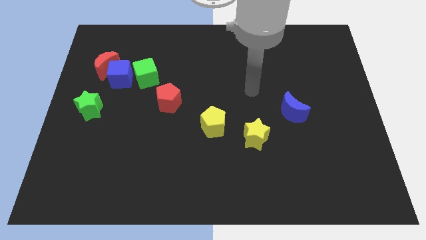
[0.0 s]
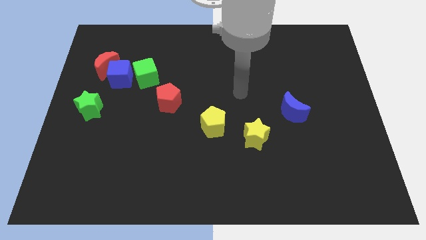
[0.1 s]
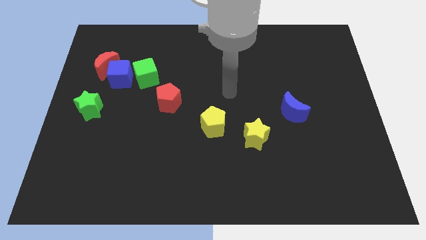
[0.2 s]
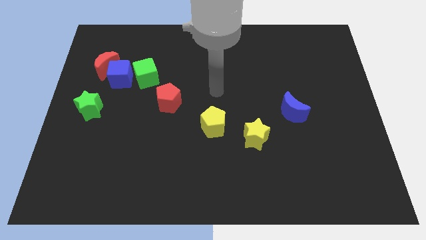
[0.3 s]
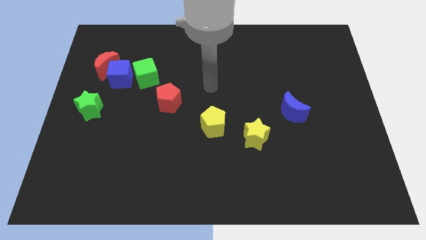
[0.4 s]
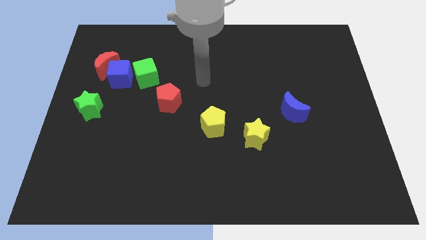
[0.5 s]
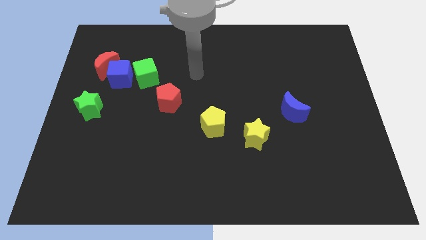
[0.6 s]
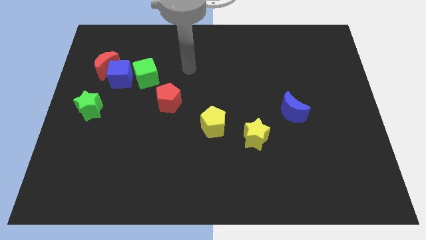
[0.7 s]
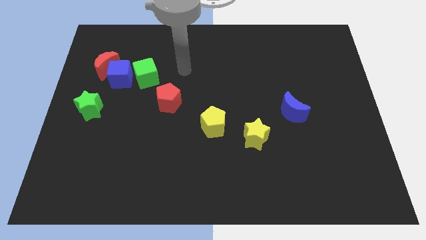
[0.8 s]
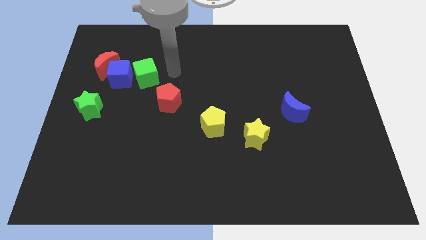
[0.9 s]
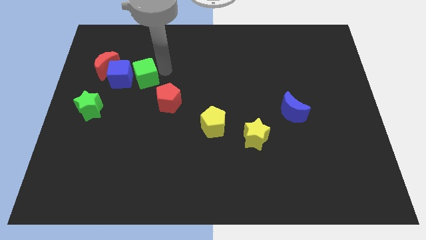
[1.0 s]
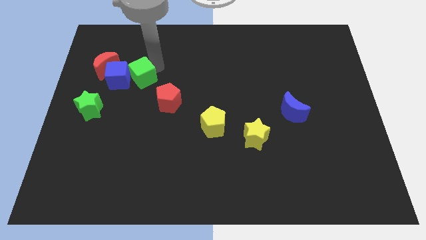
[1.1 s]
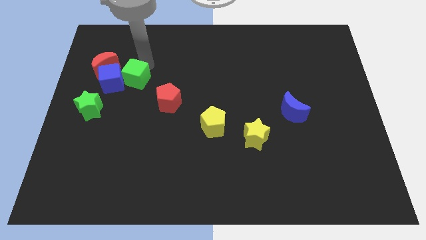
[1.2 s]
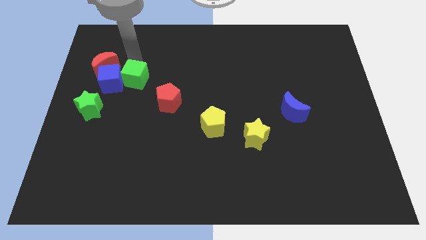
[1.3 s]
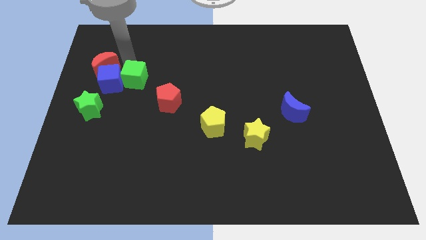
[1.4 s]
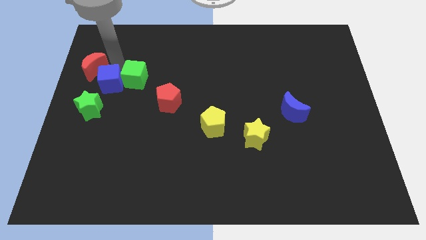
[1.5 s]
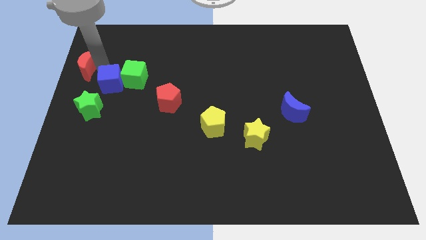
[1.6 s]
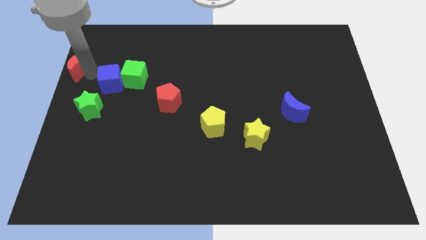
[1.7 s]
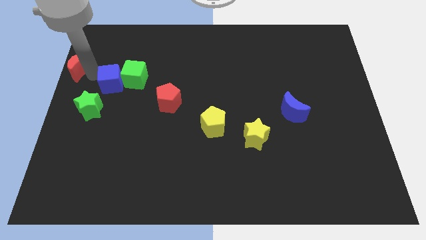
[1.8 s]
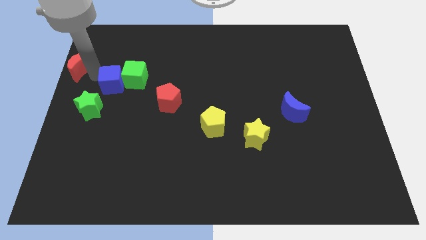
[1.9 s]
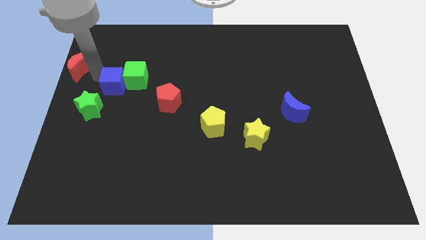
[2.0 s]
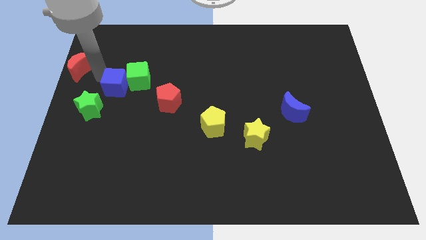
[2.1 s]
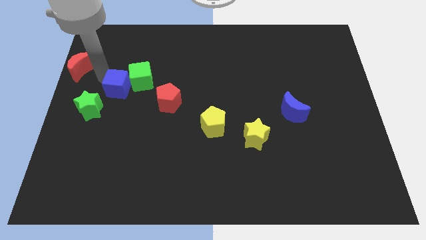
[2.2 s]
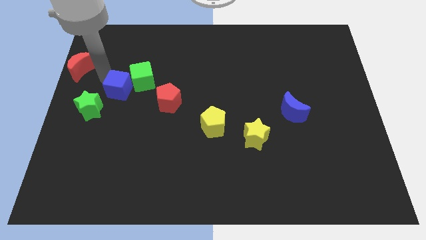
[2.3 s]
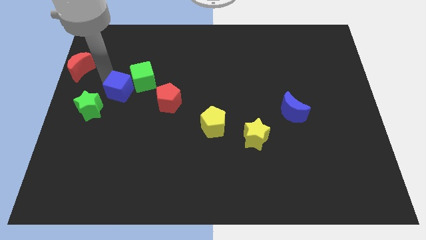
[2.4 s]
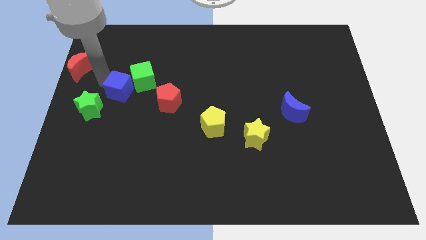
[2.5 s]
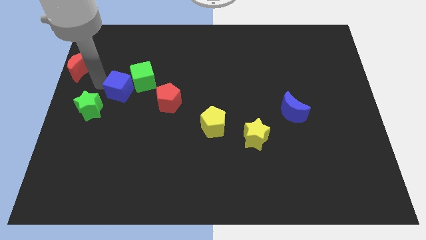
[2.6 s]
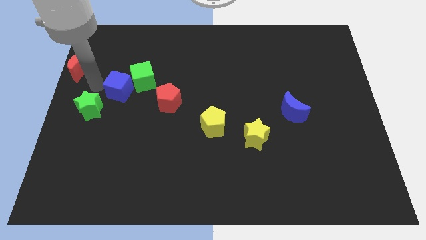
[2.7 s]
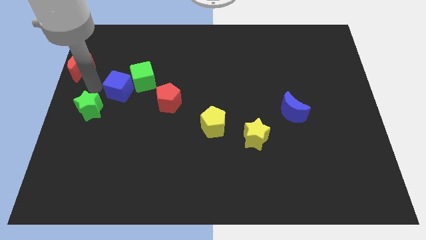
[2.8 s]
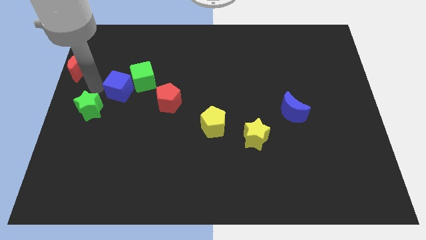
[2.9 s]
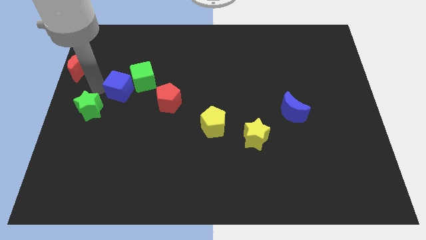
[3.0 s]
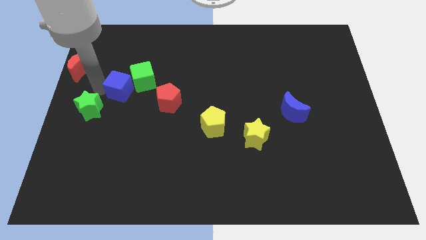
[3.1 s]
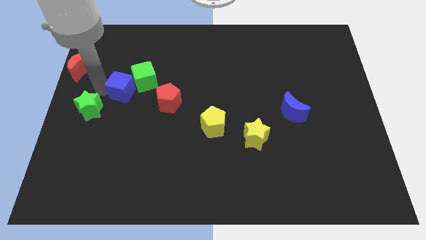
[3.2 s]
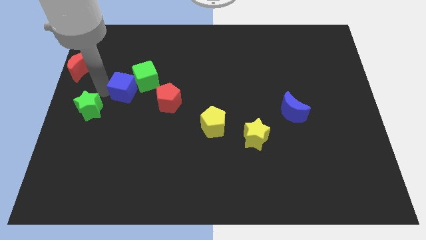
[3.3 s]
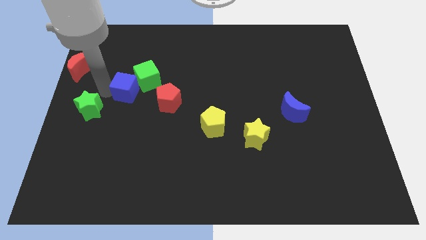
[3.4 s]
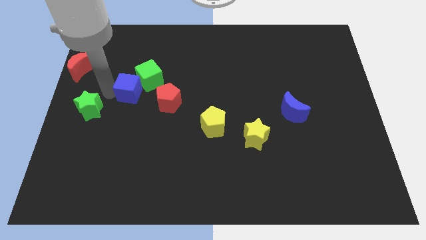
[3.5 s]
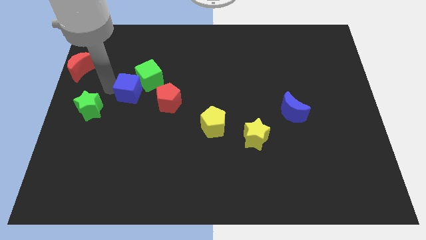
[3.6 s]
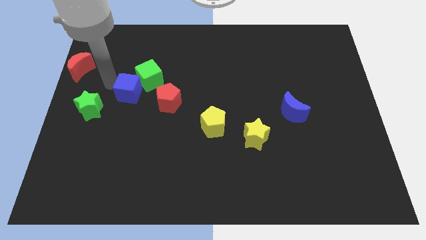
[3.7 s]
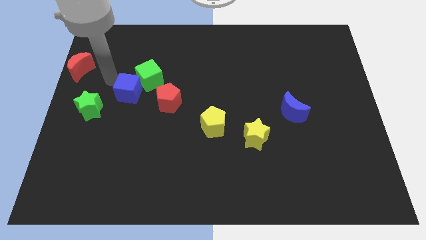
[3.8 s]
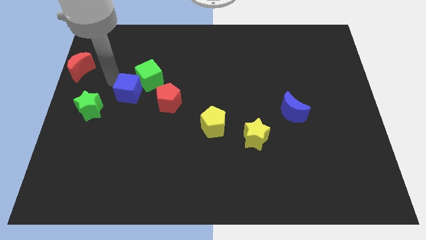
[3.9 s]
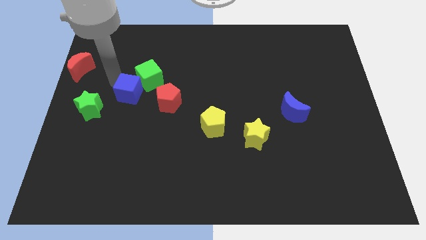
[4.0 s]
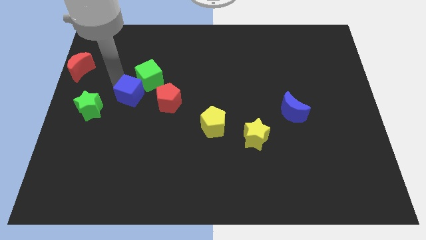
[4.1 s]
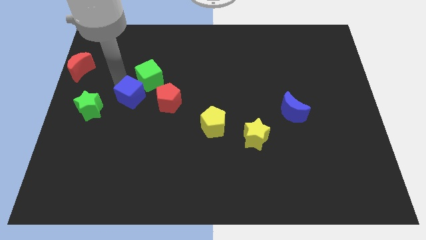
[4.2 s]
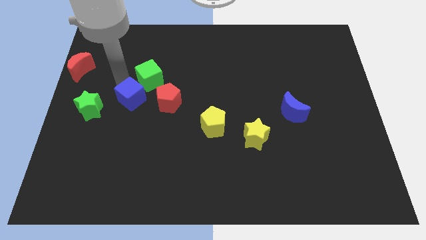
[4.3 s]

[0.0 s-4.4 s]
slightly slide the blue cube downwards and then to the right

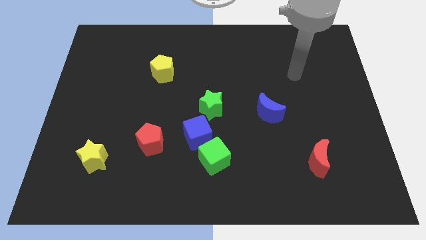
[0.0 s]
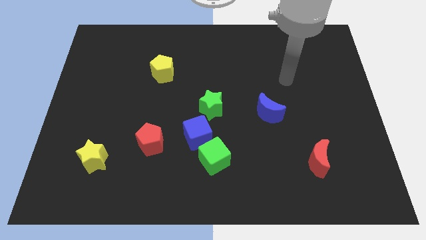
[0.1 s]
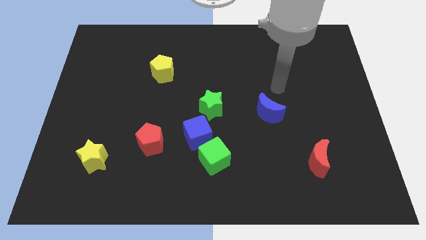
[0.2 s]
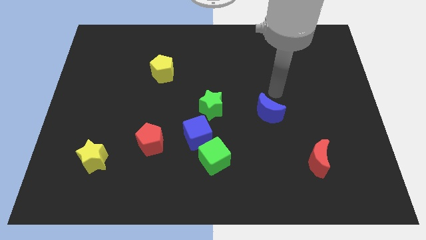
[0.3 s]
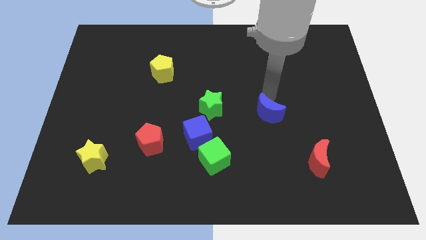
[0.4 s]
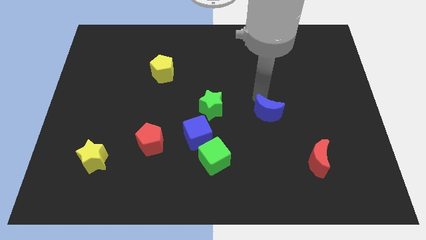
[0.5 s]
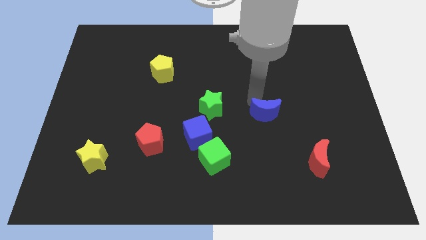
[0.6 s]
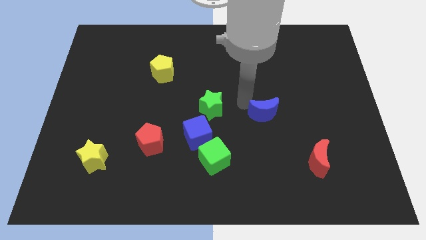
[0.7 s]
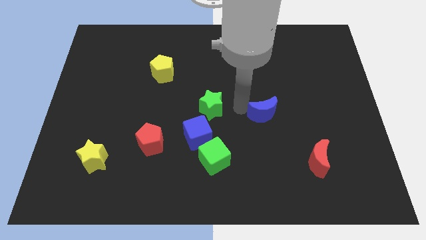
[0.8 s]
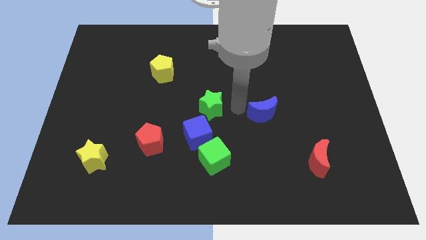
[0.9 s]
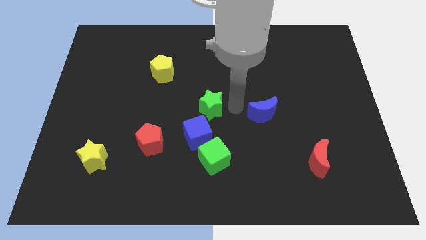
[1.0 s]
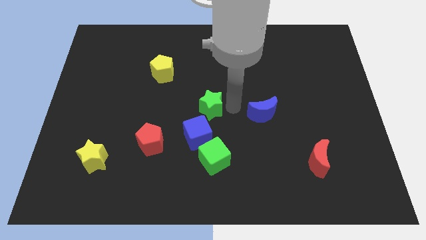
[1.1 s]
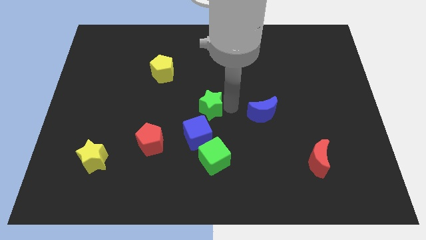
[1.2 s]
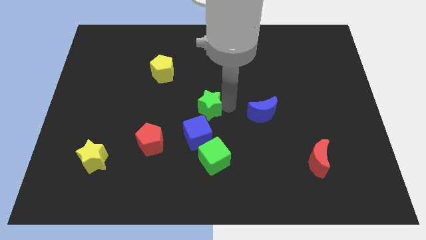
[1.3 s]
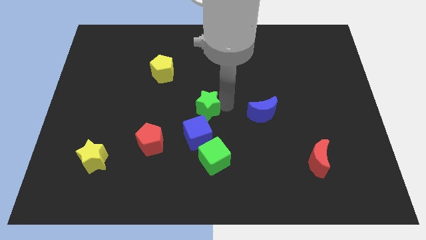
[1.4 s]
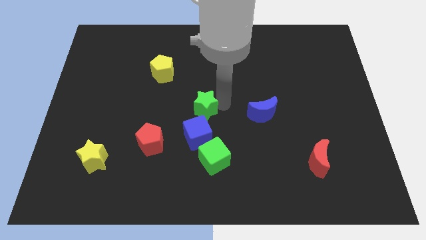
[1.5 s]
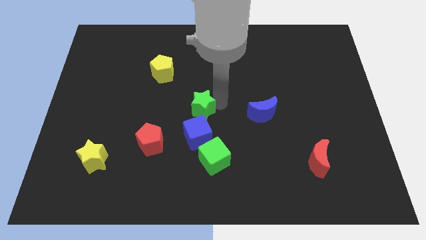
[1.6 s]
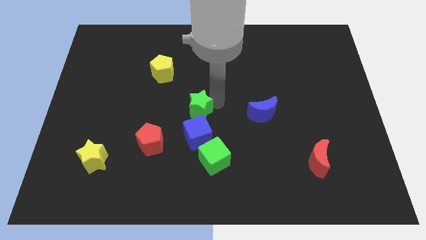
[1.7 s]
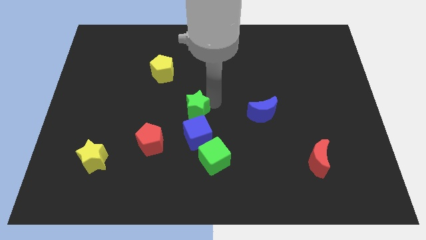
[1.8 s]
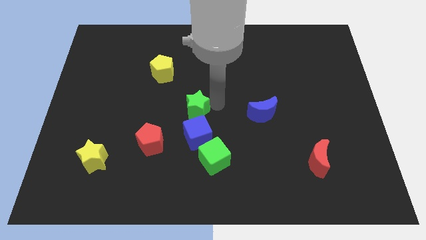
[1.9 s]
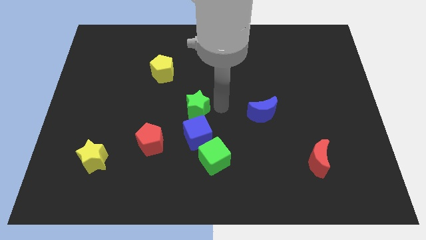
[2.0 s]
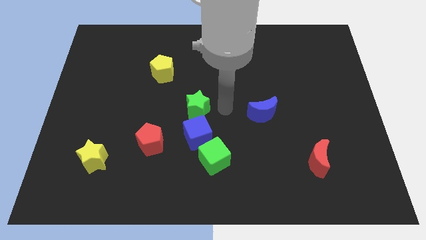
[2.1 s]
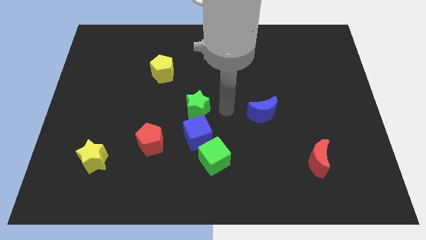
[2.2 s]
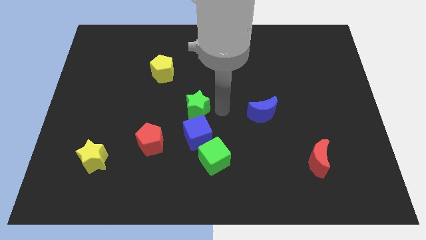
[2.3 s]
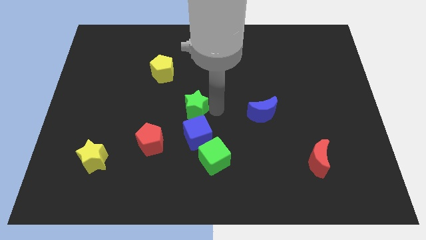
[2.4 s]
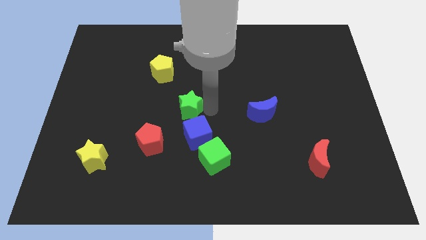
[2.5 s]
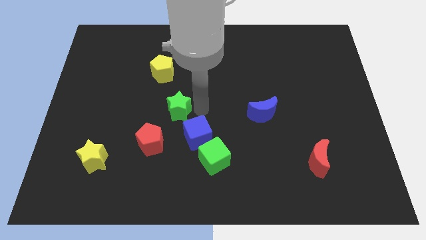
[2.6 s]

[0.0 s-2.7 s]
slightly push the green star left

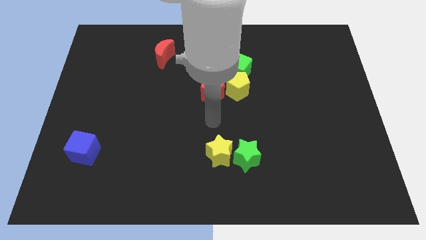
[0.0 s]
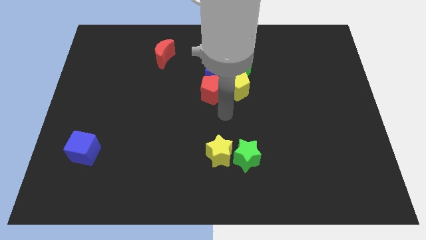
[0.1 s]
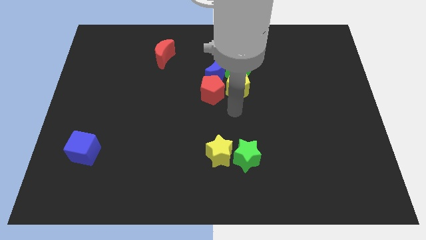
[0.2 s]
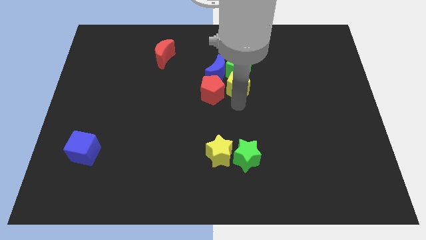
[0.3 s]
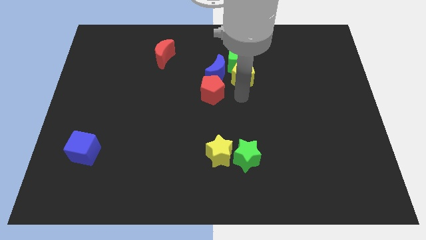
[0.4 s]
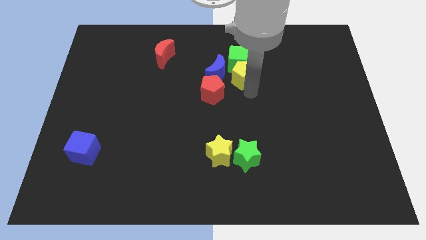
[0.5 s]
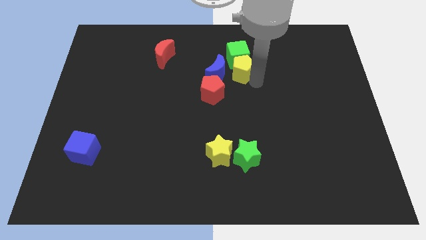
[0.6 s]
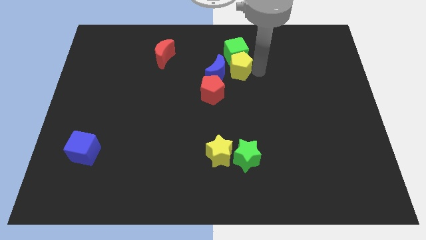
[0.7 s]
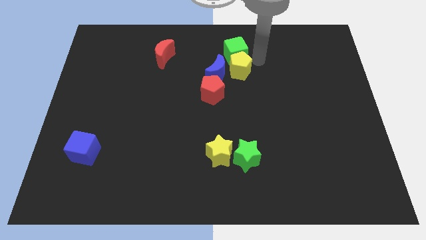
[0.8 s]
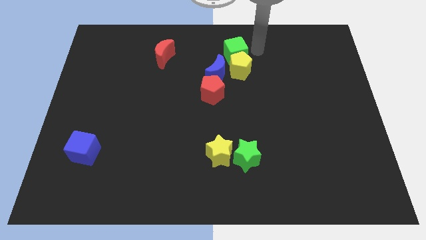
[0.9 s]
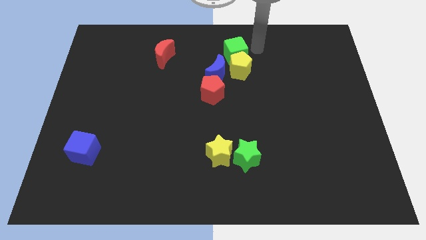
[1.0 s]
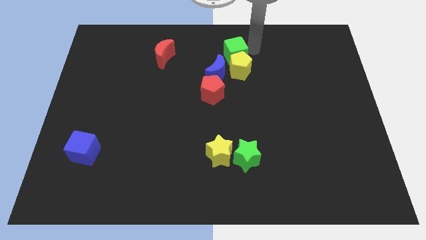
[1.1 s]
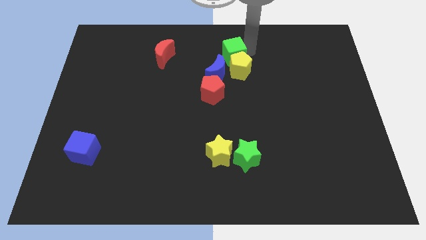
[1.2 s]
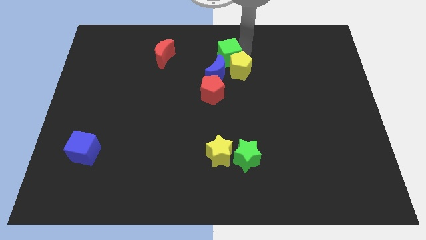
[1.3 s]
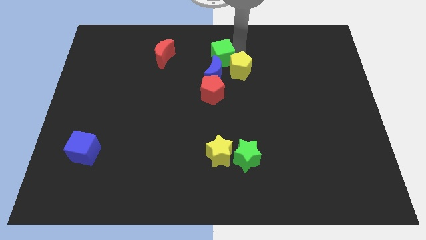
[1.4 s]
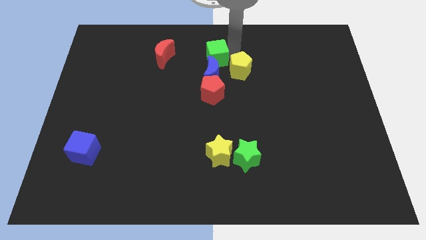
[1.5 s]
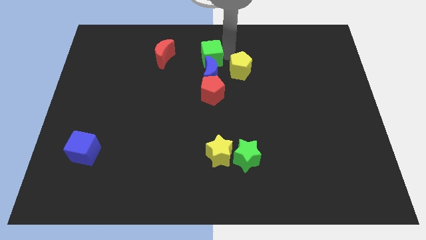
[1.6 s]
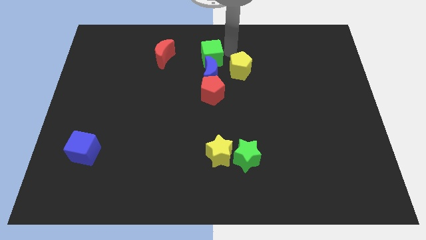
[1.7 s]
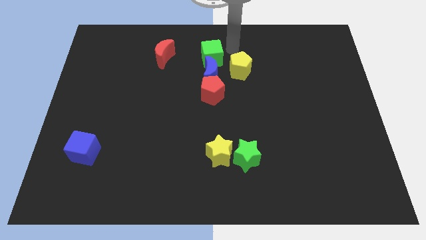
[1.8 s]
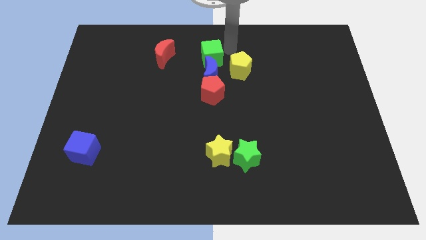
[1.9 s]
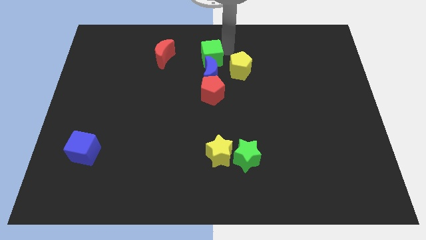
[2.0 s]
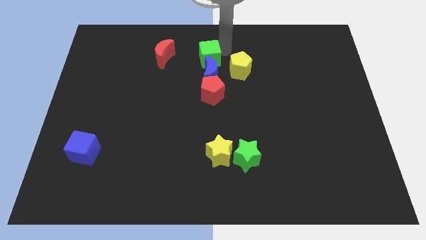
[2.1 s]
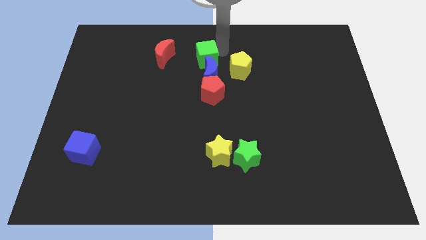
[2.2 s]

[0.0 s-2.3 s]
move the green cube left slightly
